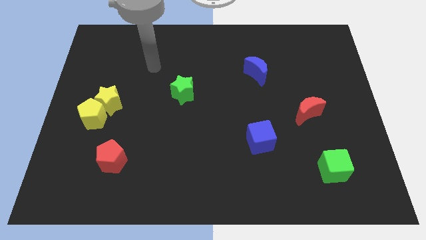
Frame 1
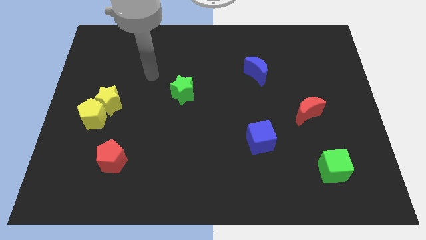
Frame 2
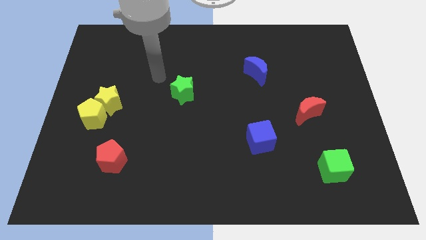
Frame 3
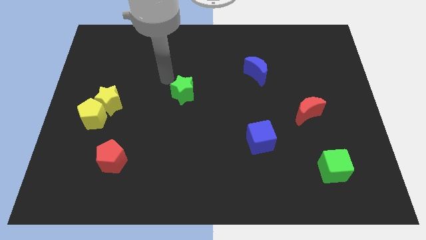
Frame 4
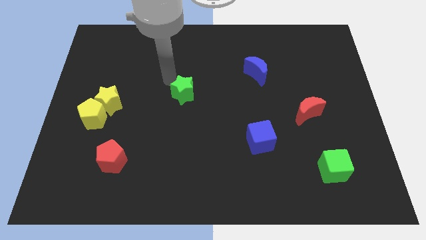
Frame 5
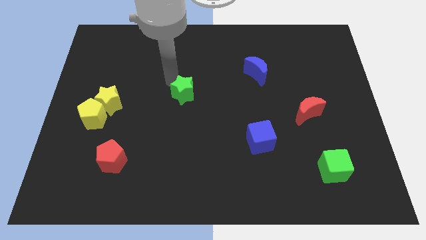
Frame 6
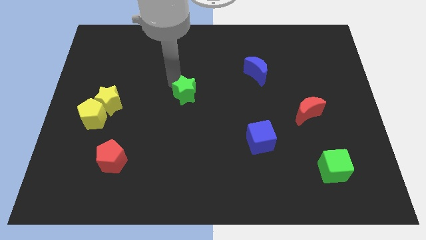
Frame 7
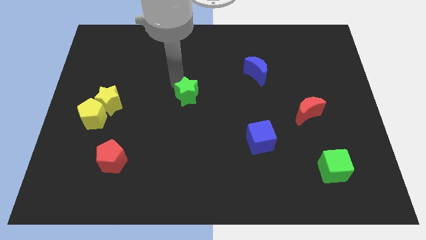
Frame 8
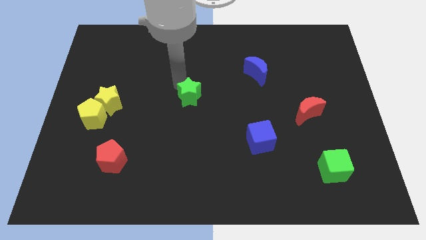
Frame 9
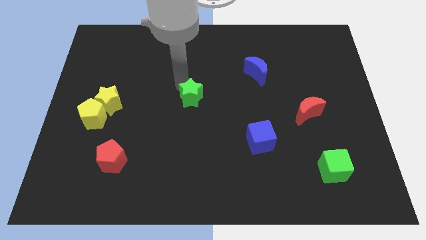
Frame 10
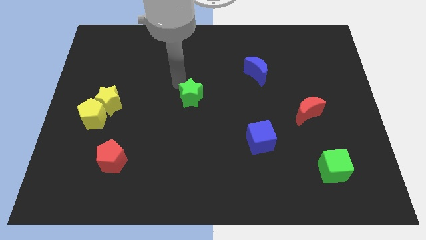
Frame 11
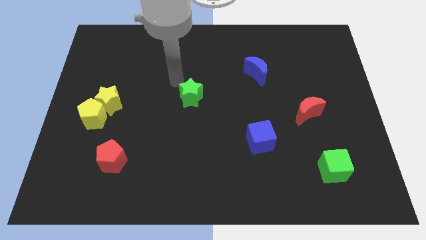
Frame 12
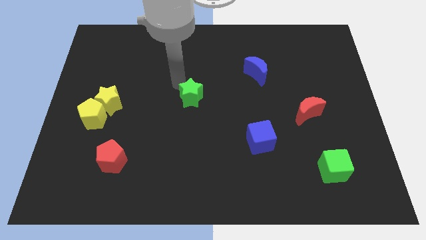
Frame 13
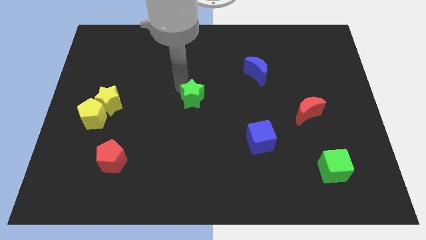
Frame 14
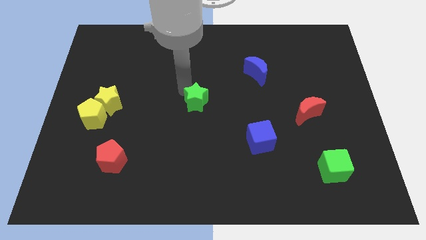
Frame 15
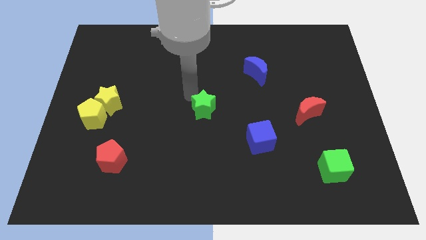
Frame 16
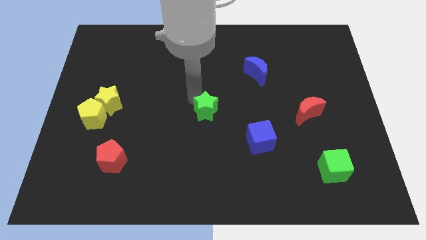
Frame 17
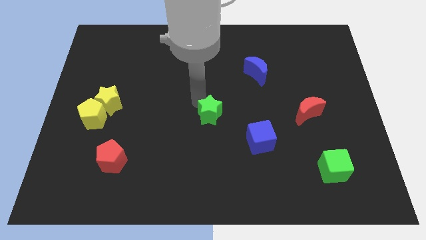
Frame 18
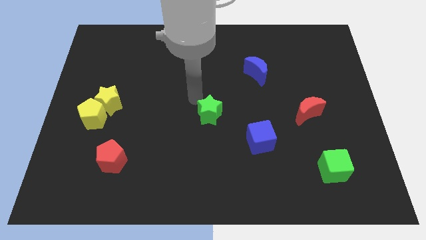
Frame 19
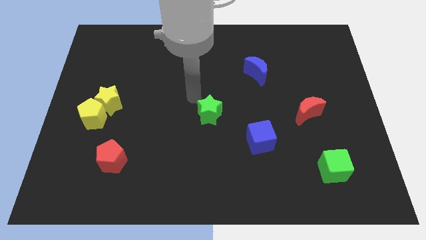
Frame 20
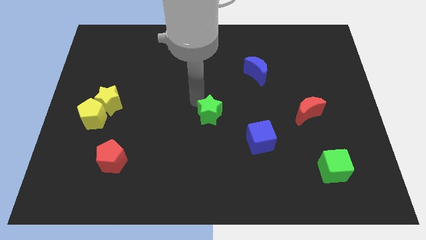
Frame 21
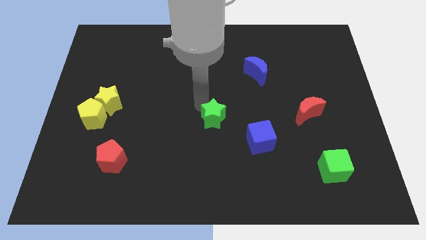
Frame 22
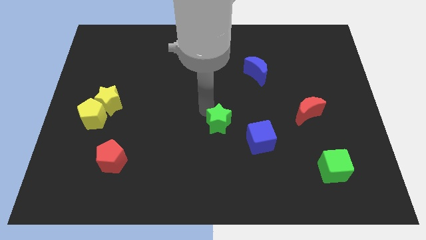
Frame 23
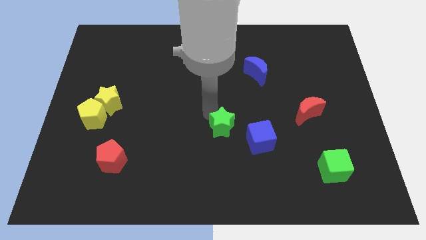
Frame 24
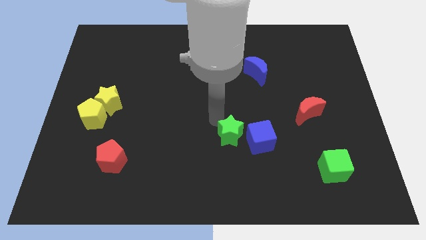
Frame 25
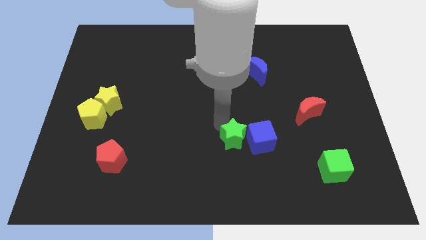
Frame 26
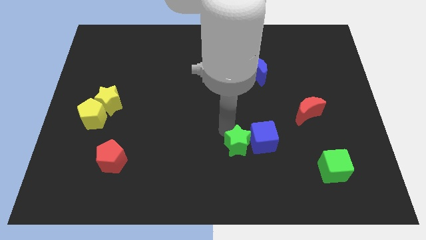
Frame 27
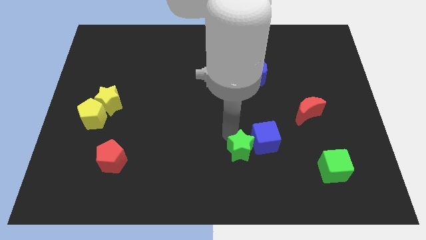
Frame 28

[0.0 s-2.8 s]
push the green star down and then right

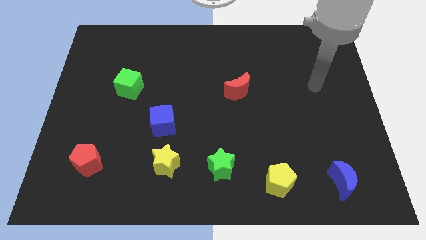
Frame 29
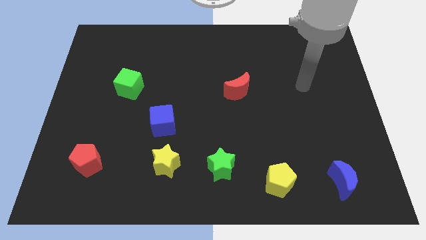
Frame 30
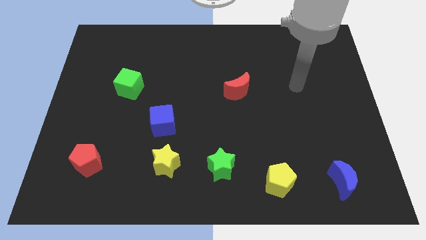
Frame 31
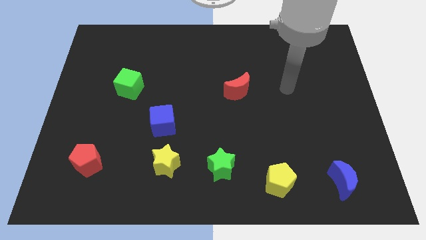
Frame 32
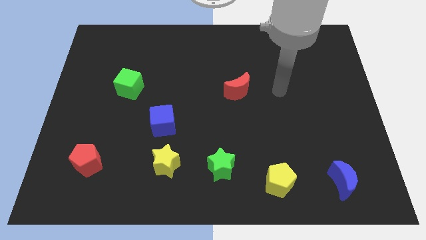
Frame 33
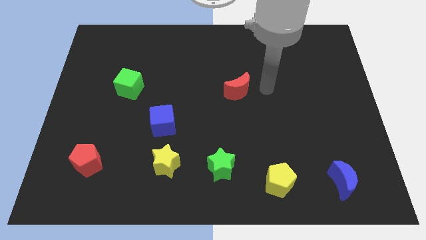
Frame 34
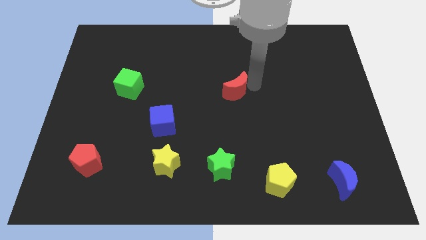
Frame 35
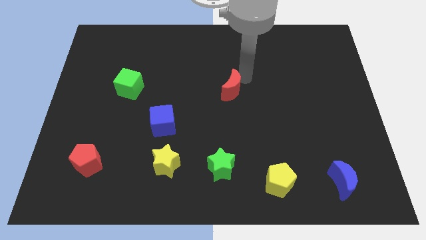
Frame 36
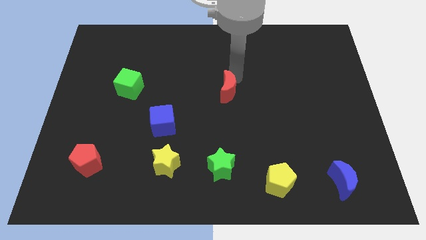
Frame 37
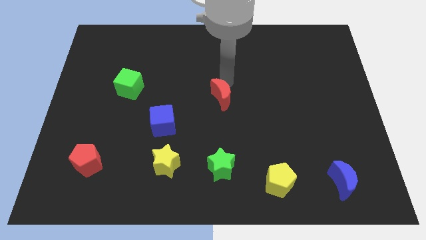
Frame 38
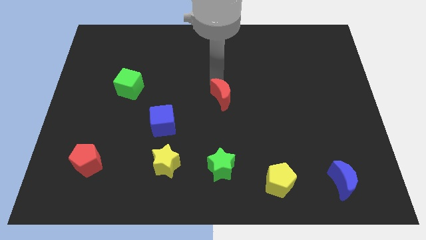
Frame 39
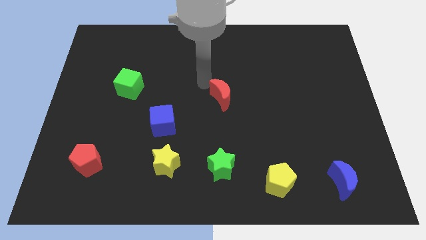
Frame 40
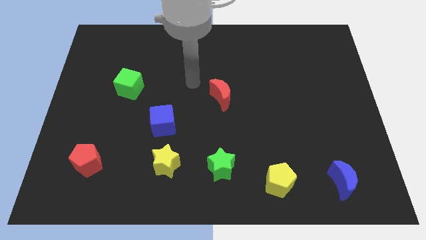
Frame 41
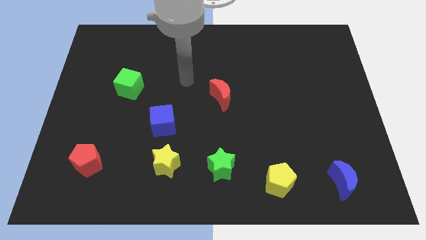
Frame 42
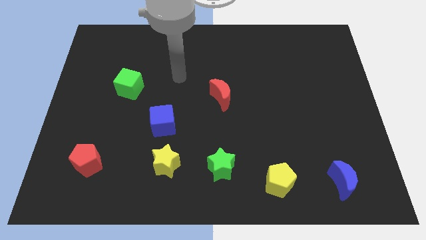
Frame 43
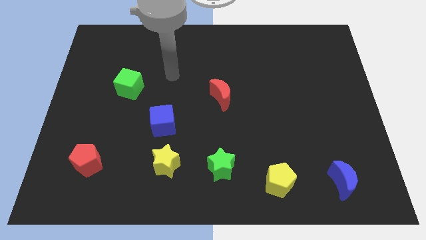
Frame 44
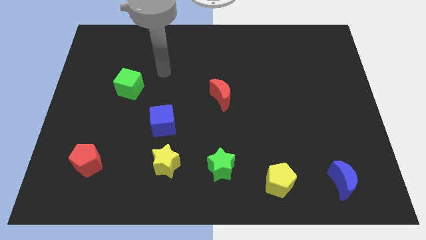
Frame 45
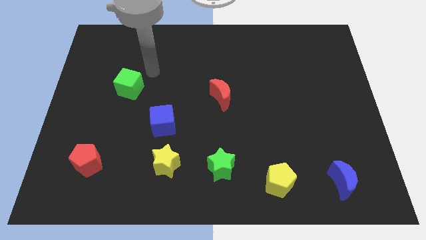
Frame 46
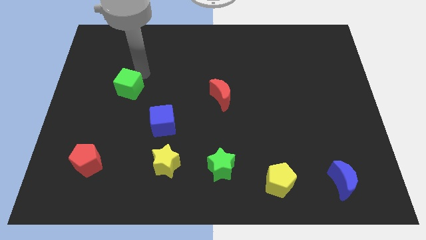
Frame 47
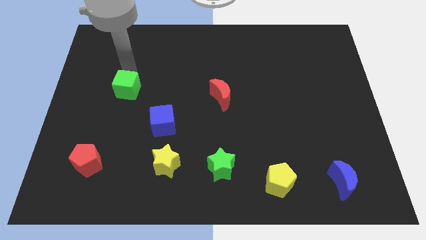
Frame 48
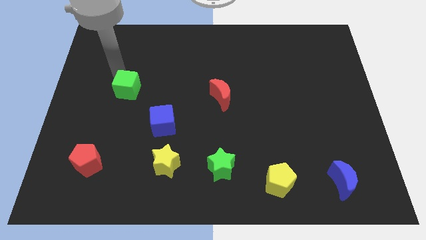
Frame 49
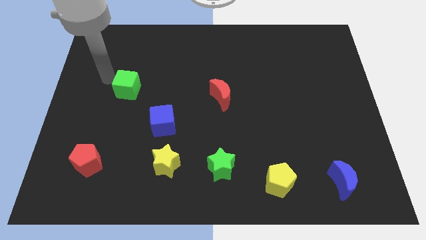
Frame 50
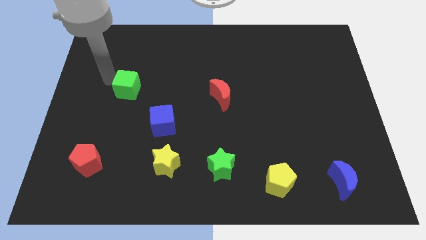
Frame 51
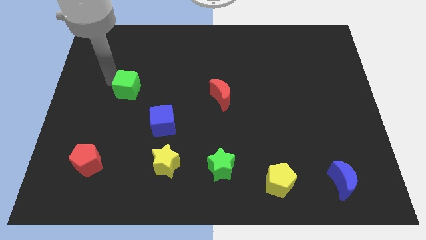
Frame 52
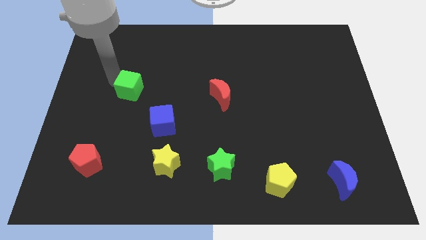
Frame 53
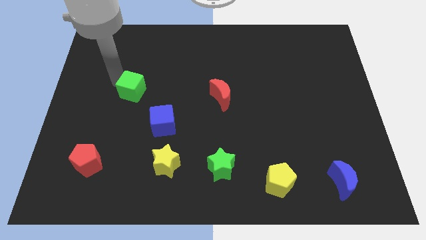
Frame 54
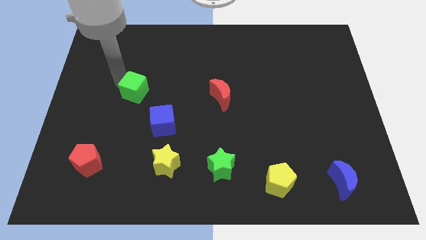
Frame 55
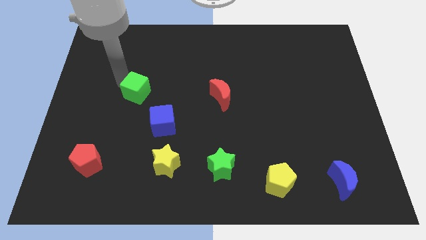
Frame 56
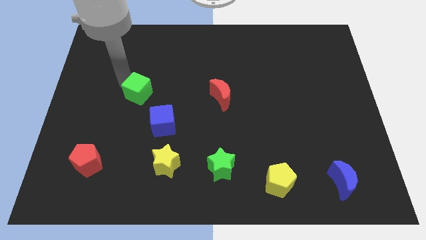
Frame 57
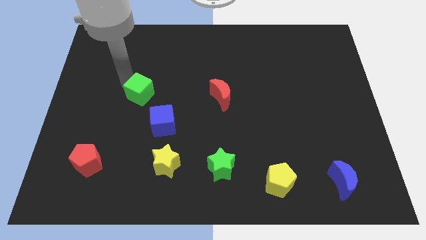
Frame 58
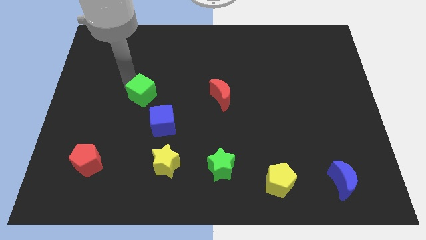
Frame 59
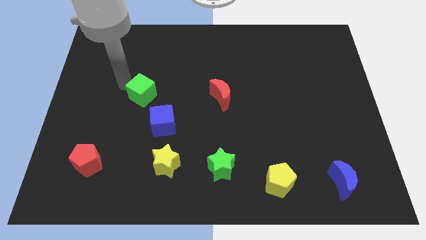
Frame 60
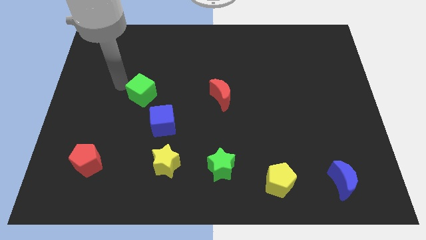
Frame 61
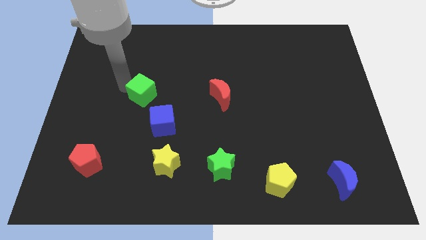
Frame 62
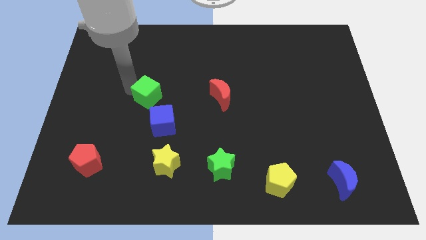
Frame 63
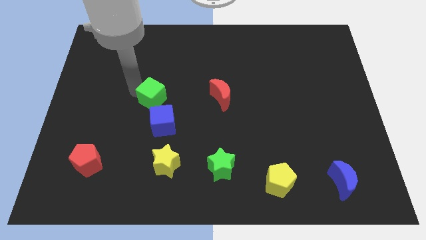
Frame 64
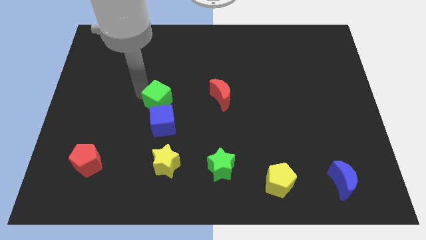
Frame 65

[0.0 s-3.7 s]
push the green cube down and then to the right a little bit

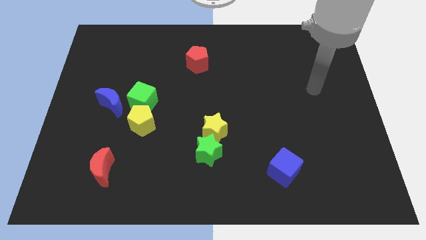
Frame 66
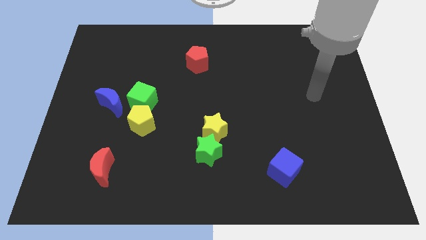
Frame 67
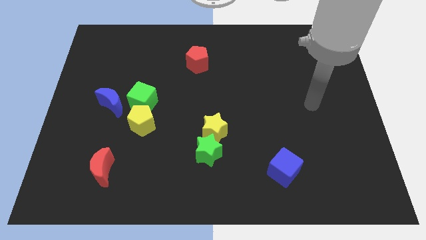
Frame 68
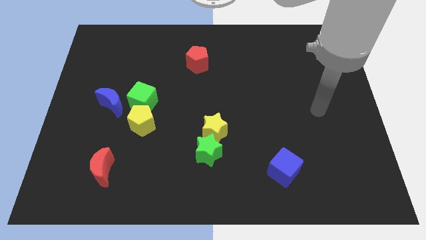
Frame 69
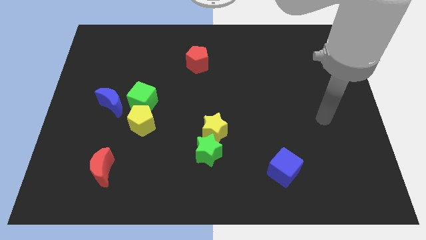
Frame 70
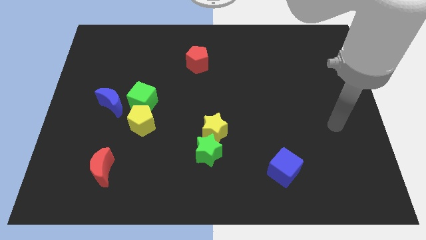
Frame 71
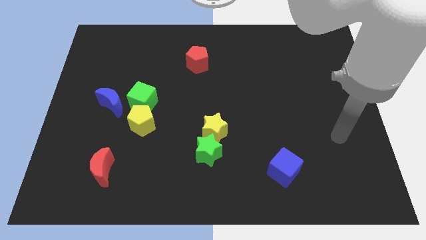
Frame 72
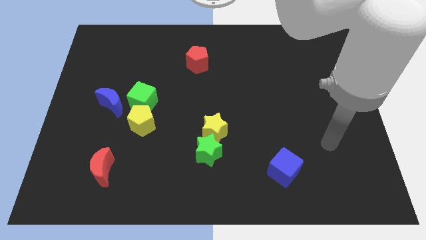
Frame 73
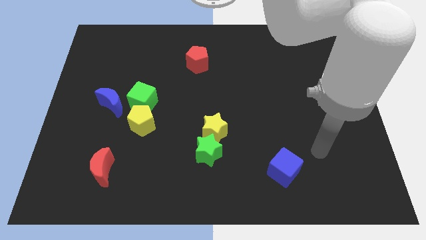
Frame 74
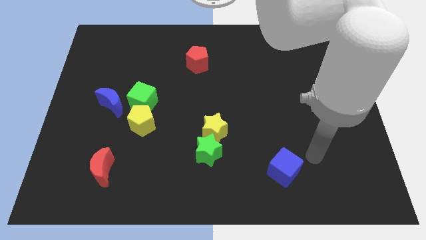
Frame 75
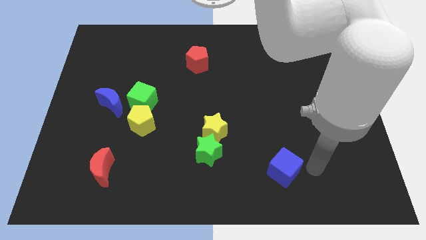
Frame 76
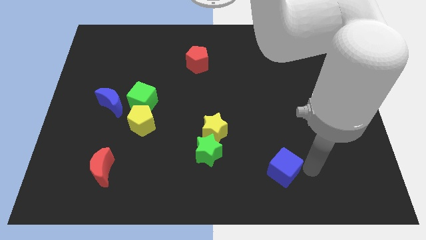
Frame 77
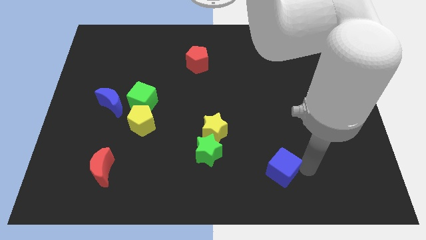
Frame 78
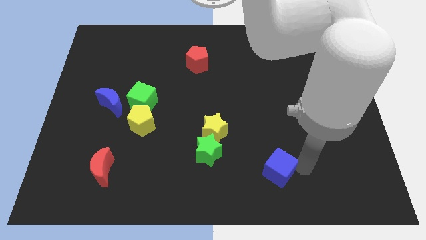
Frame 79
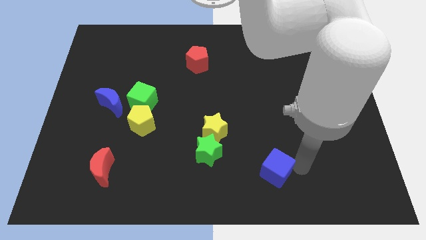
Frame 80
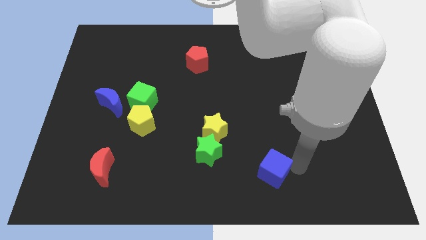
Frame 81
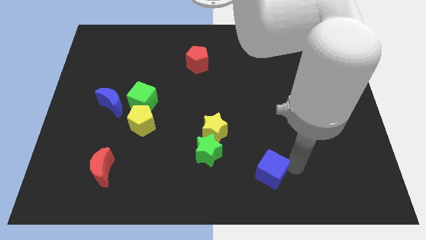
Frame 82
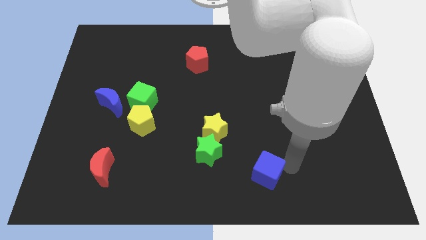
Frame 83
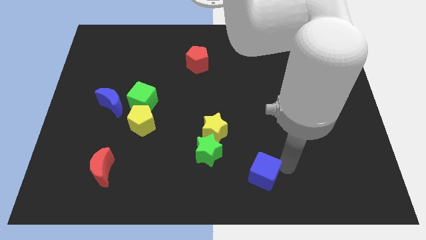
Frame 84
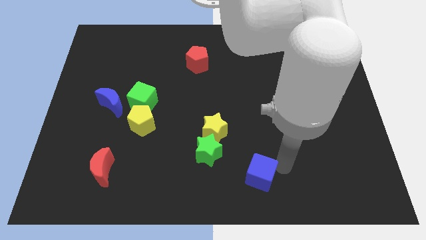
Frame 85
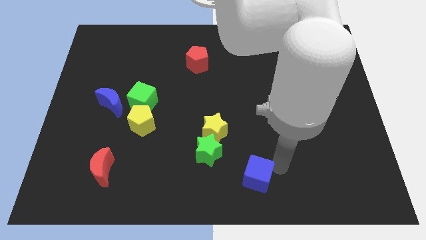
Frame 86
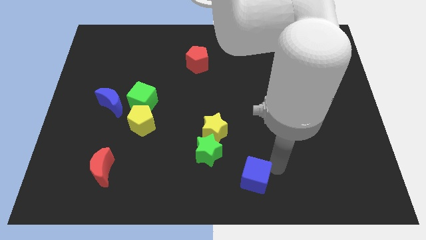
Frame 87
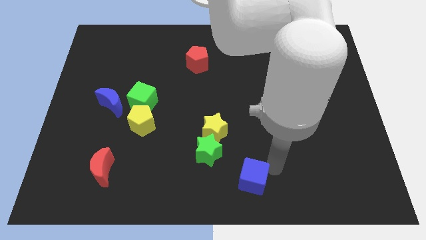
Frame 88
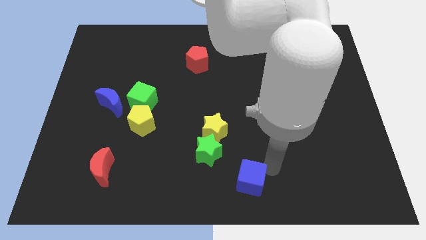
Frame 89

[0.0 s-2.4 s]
slightly move the blue cube left
